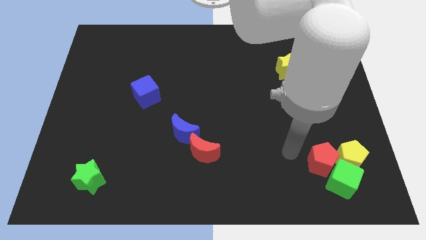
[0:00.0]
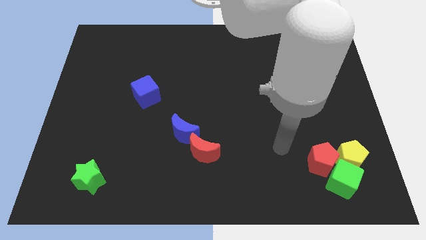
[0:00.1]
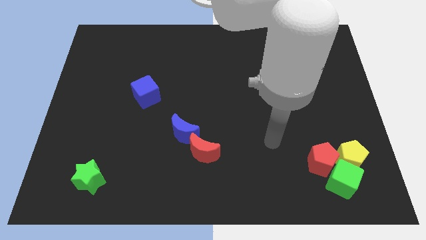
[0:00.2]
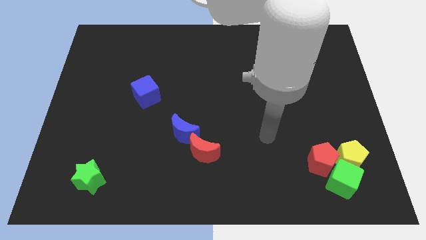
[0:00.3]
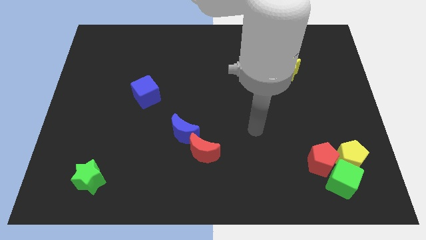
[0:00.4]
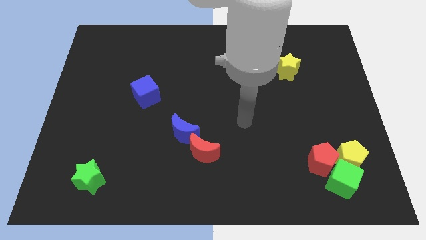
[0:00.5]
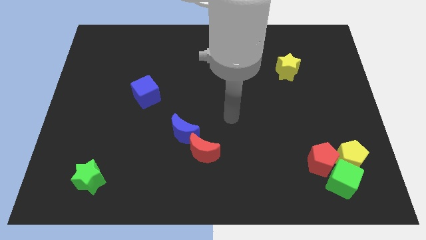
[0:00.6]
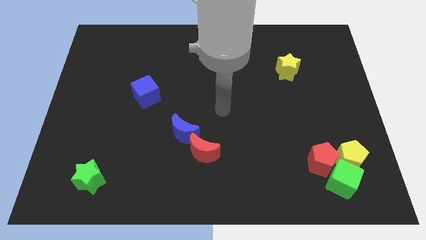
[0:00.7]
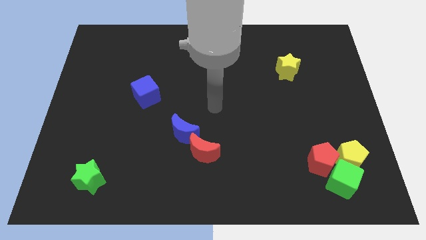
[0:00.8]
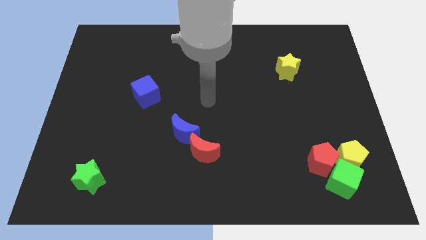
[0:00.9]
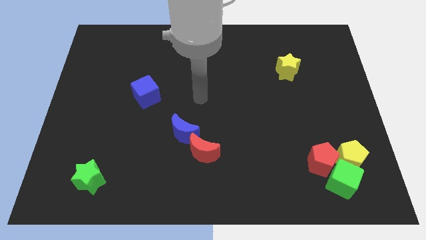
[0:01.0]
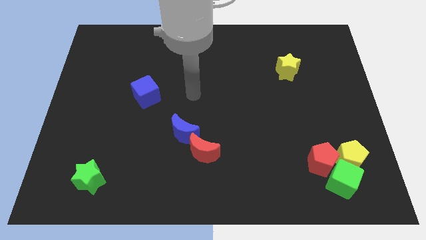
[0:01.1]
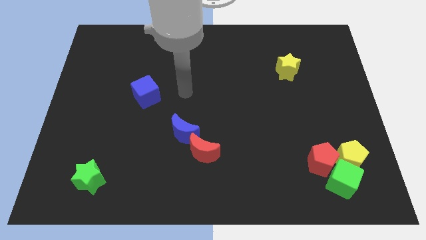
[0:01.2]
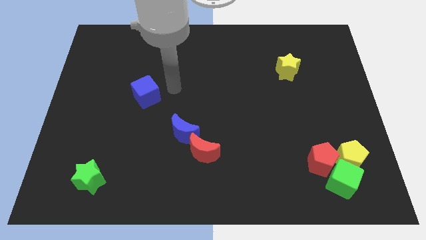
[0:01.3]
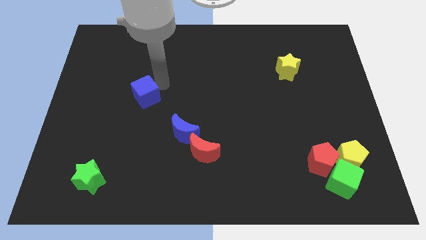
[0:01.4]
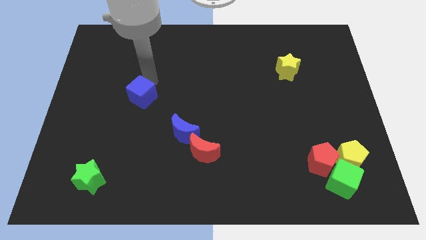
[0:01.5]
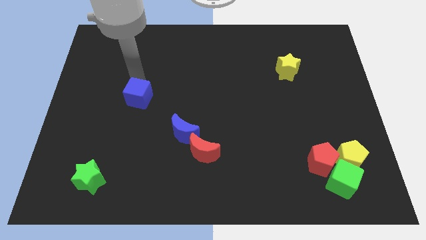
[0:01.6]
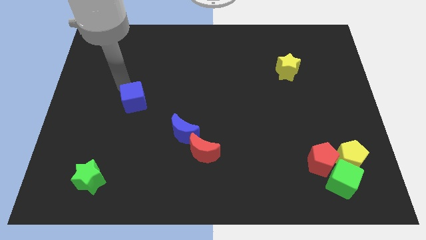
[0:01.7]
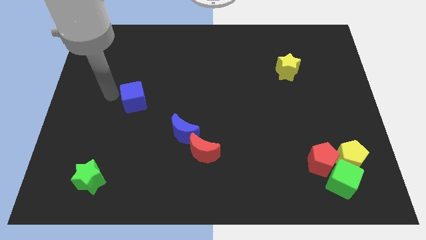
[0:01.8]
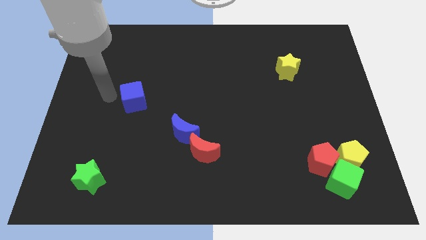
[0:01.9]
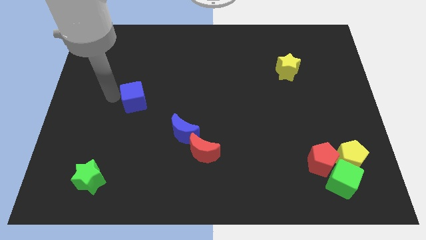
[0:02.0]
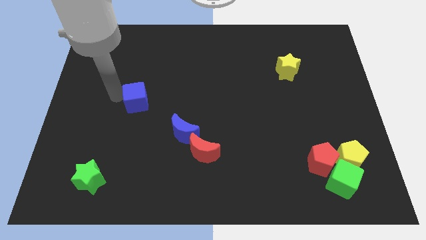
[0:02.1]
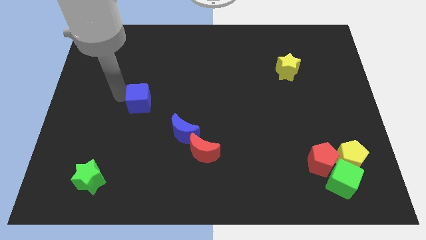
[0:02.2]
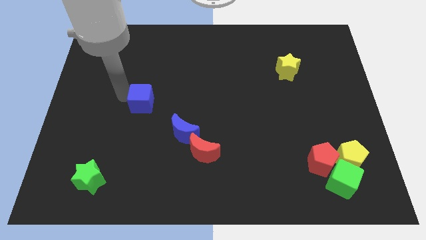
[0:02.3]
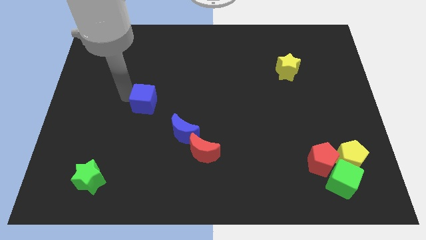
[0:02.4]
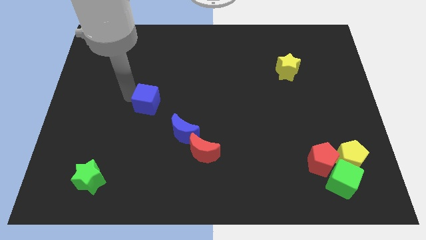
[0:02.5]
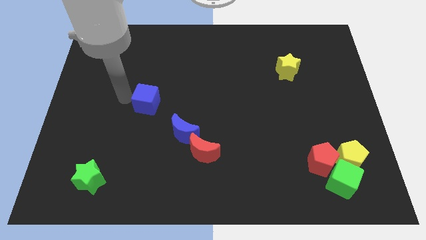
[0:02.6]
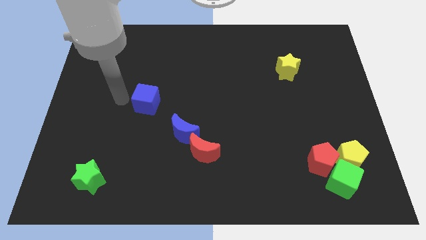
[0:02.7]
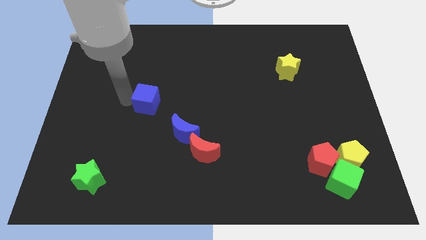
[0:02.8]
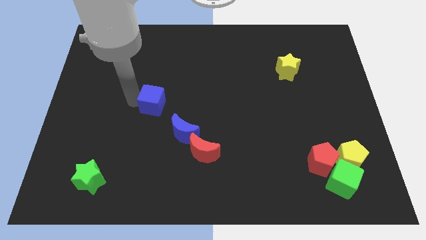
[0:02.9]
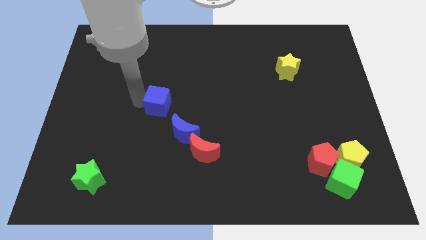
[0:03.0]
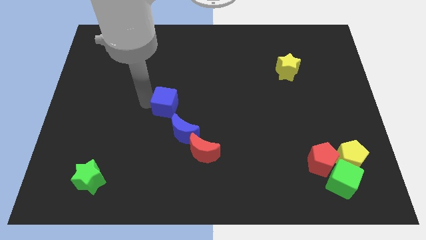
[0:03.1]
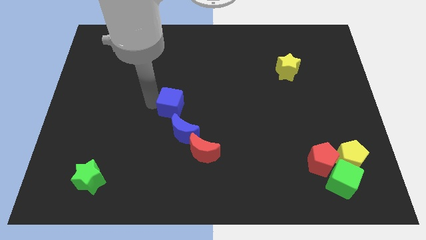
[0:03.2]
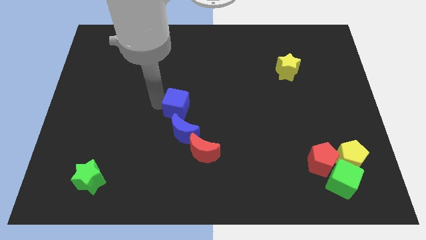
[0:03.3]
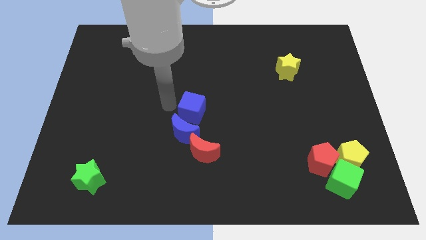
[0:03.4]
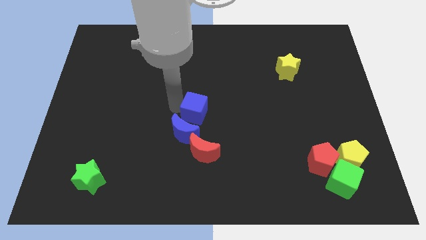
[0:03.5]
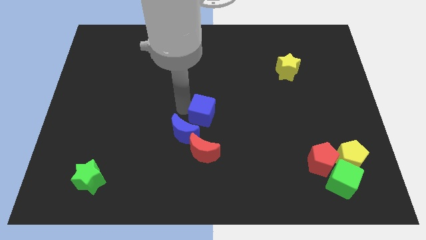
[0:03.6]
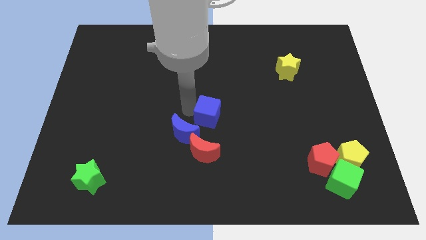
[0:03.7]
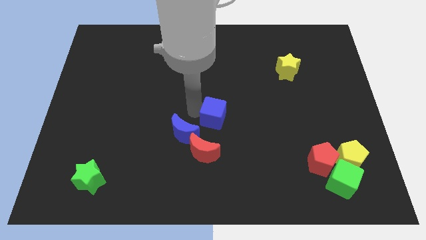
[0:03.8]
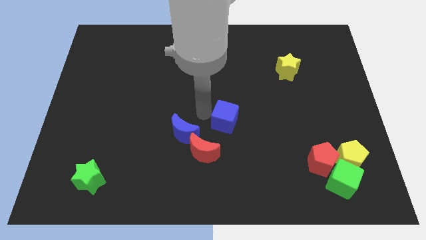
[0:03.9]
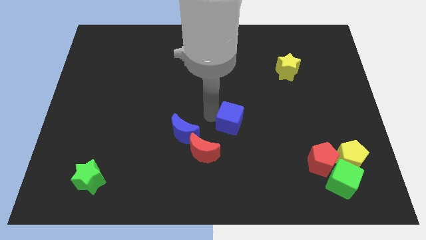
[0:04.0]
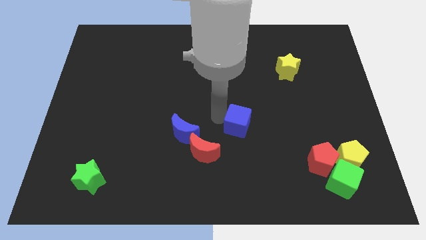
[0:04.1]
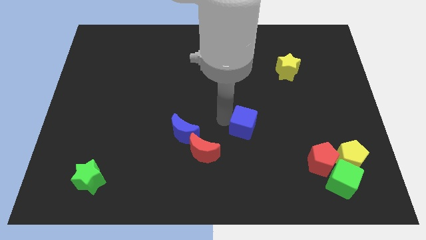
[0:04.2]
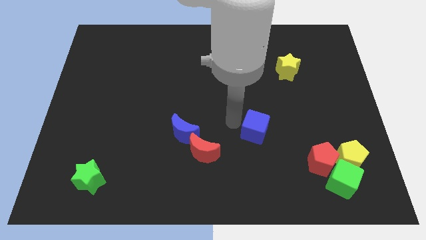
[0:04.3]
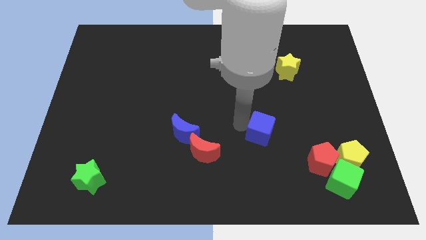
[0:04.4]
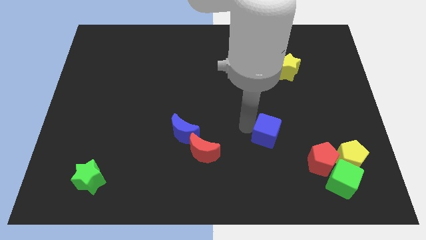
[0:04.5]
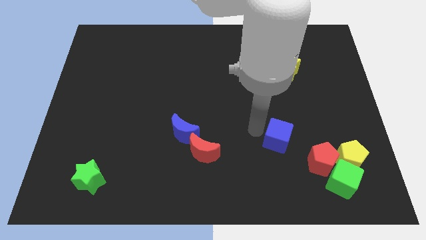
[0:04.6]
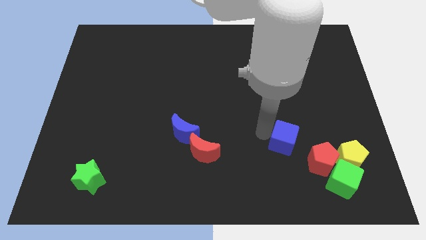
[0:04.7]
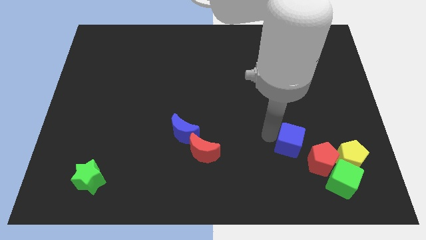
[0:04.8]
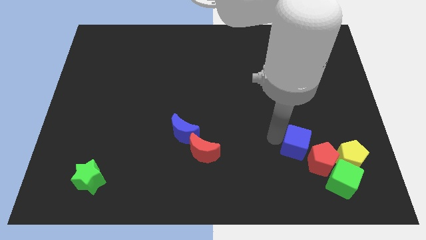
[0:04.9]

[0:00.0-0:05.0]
put the blue cube close to the red pentagon

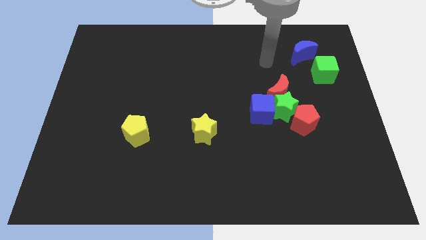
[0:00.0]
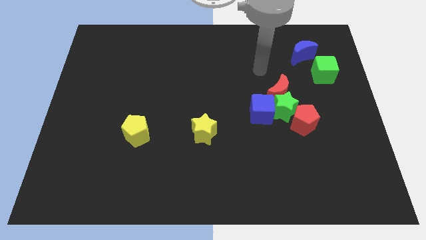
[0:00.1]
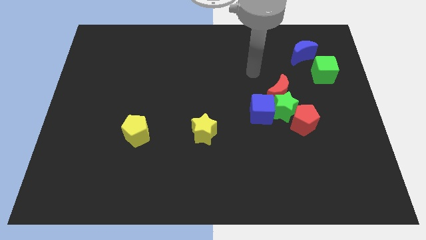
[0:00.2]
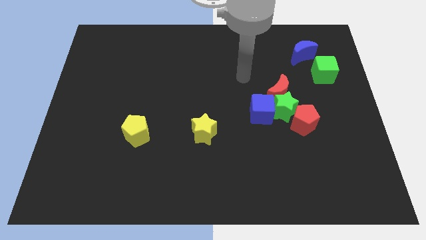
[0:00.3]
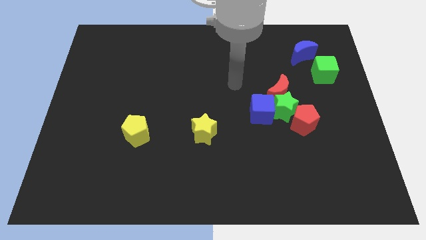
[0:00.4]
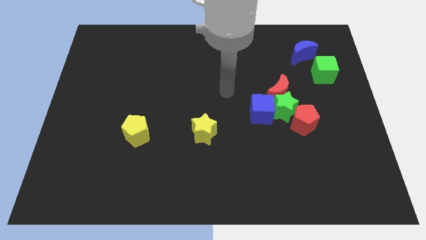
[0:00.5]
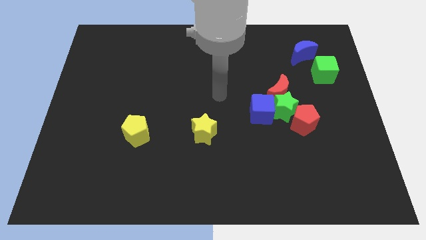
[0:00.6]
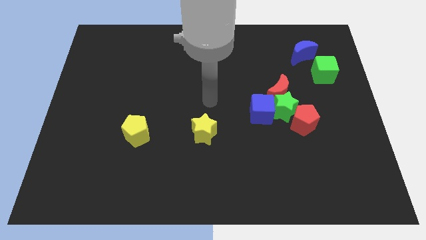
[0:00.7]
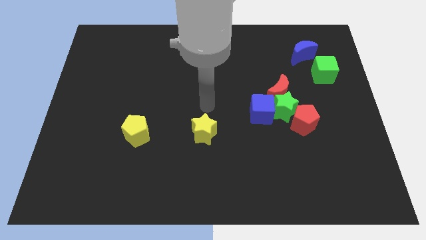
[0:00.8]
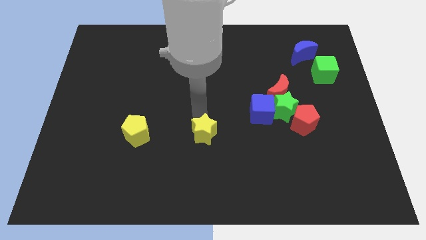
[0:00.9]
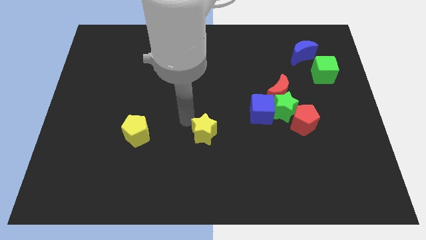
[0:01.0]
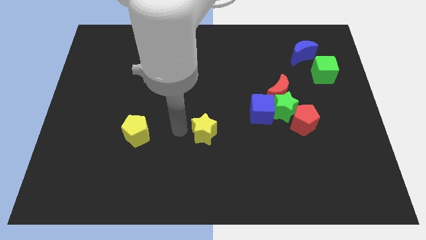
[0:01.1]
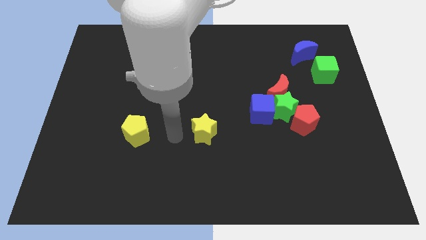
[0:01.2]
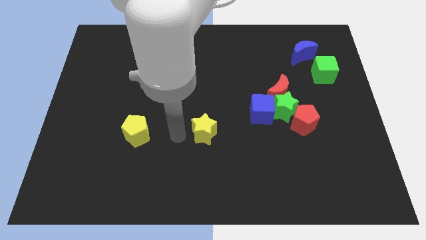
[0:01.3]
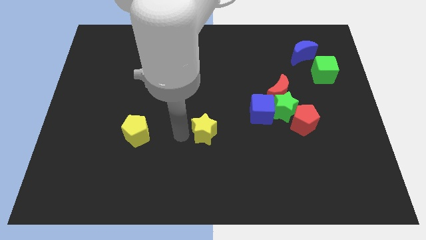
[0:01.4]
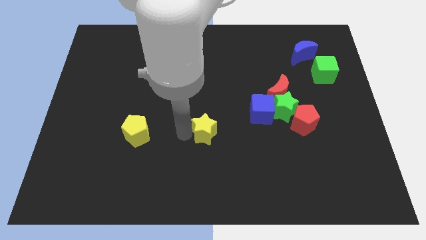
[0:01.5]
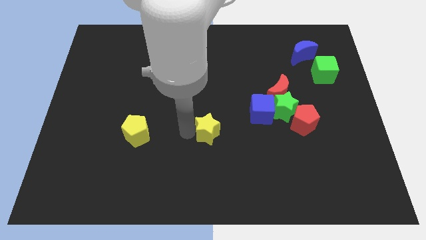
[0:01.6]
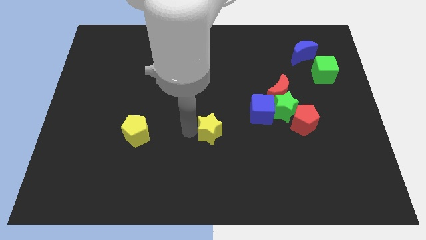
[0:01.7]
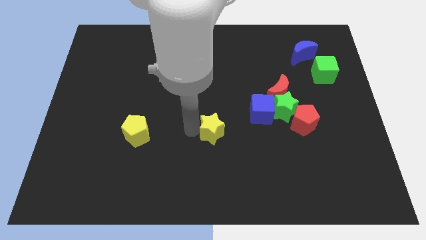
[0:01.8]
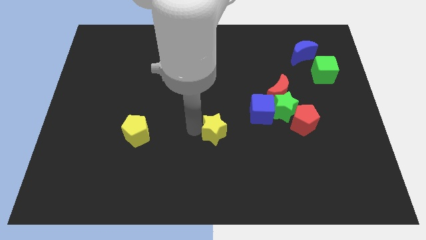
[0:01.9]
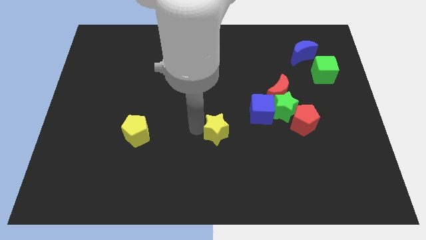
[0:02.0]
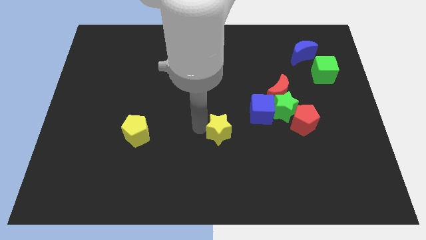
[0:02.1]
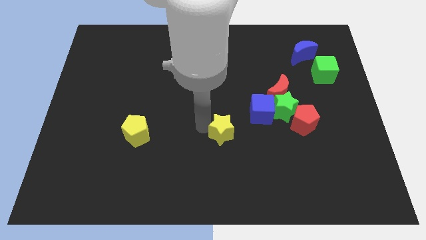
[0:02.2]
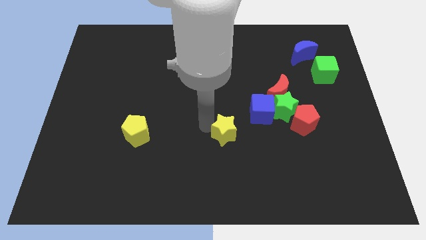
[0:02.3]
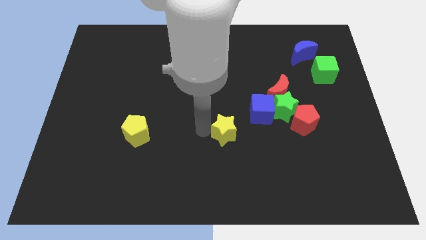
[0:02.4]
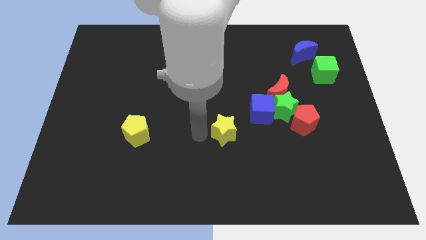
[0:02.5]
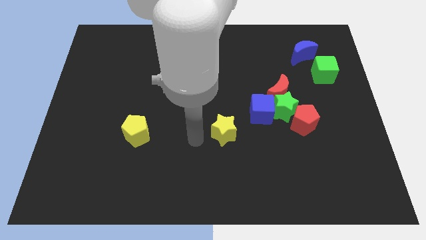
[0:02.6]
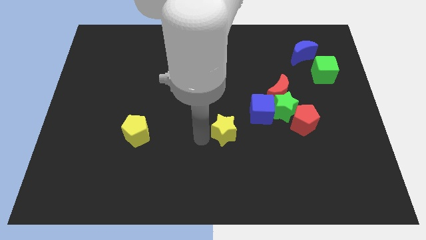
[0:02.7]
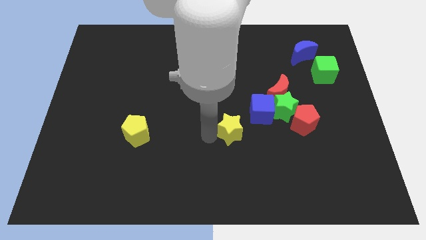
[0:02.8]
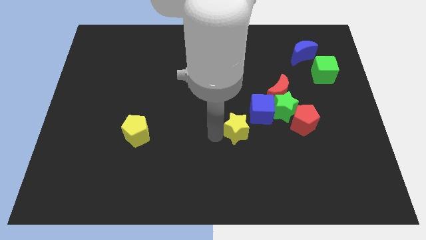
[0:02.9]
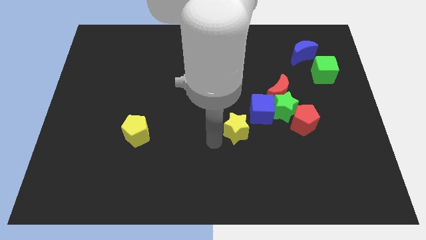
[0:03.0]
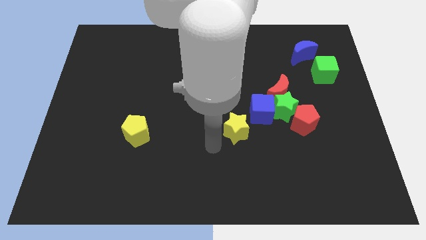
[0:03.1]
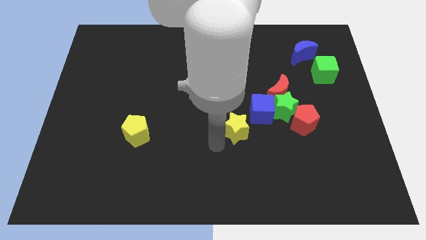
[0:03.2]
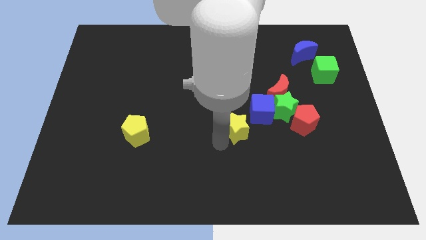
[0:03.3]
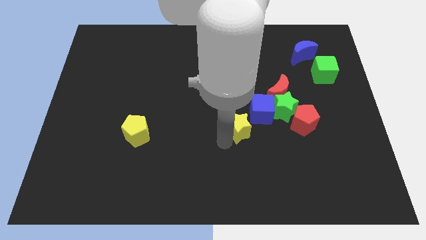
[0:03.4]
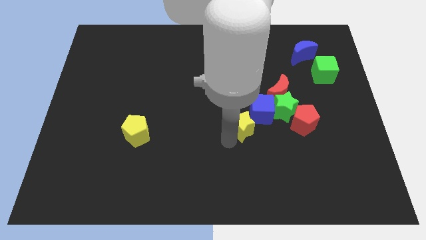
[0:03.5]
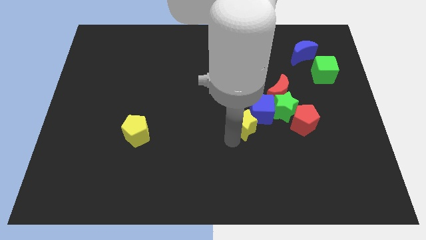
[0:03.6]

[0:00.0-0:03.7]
push the yellow star towards the blue cube
